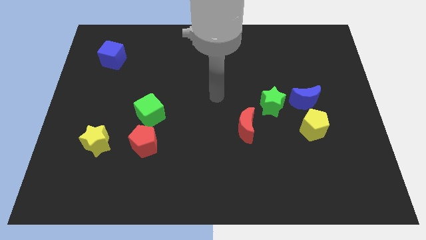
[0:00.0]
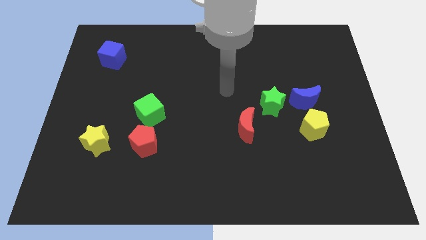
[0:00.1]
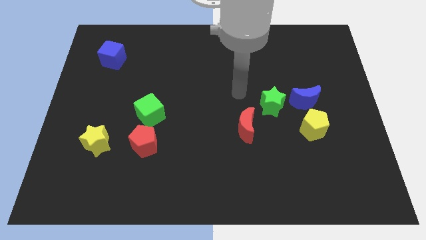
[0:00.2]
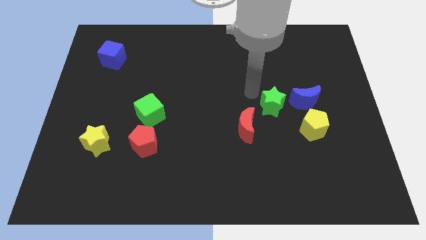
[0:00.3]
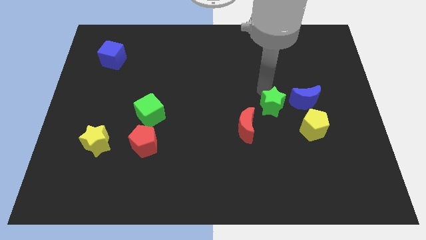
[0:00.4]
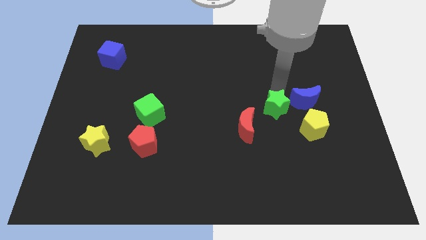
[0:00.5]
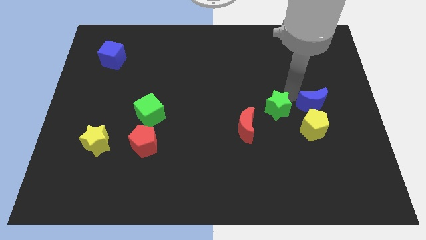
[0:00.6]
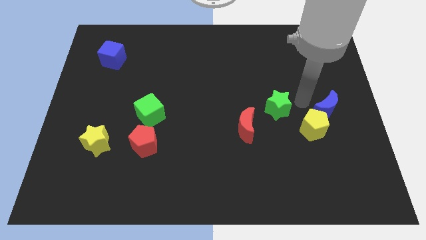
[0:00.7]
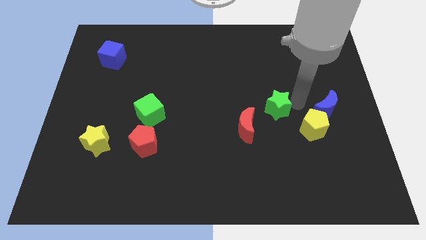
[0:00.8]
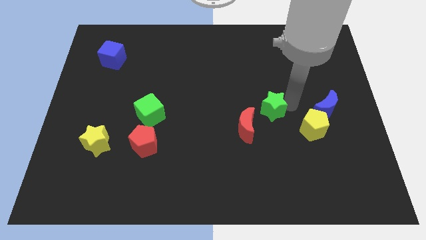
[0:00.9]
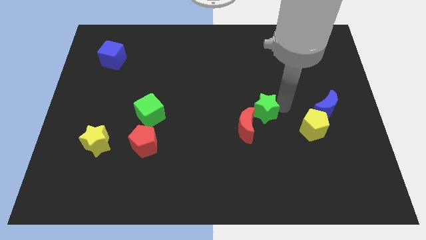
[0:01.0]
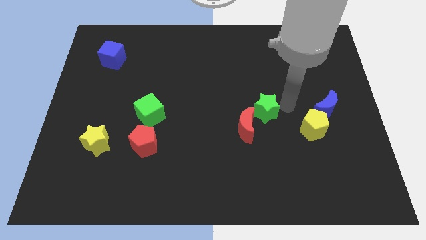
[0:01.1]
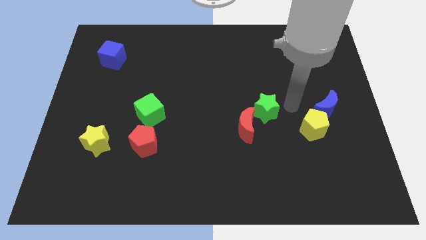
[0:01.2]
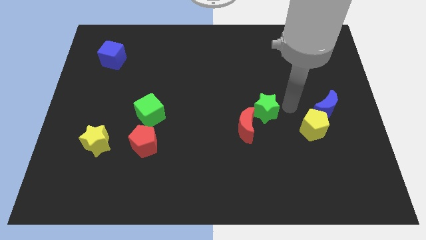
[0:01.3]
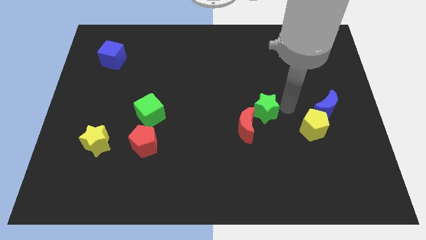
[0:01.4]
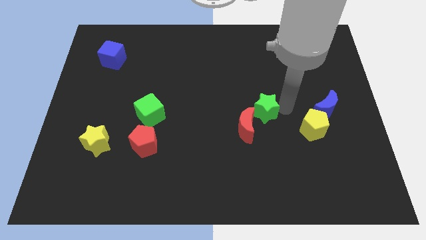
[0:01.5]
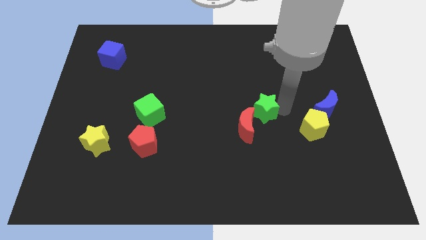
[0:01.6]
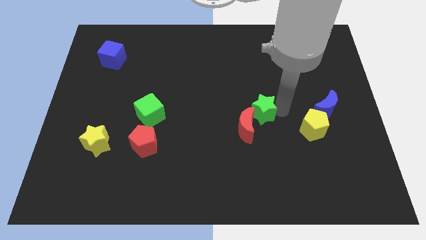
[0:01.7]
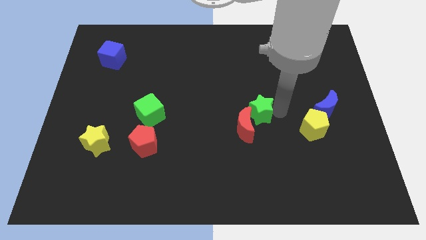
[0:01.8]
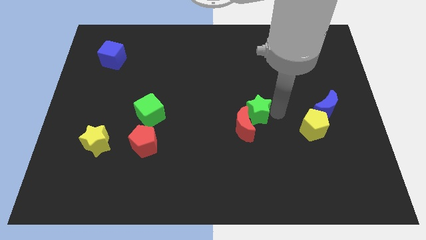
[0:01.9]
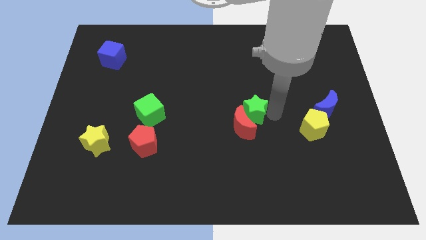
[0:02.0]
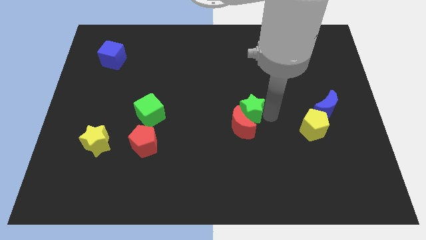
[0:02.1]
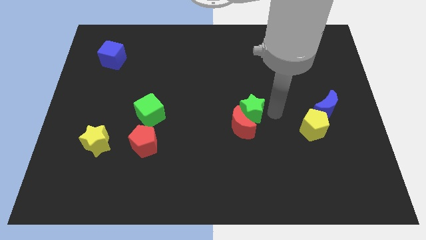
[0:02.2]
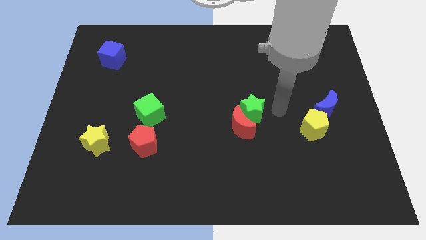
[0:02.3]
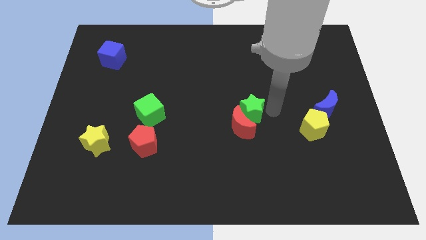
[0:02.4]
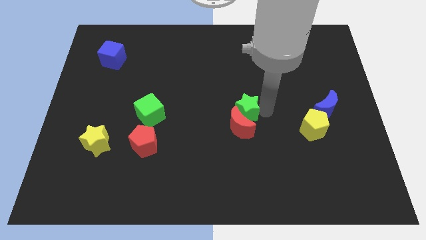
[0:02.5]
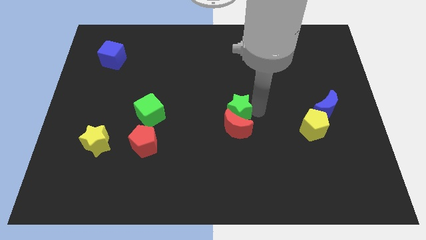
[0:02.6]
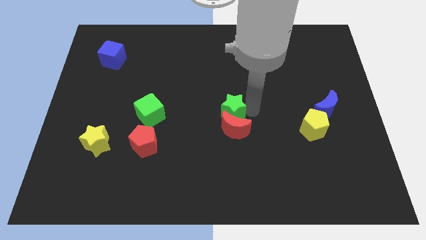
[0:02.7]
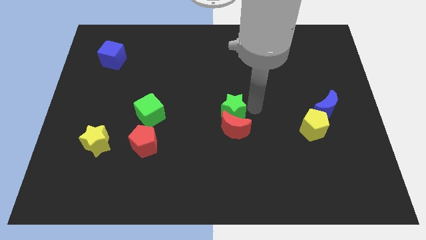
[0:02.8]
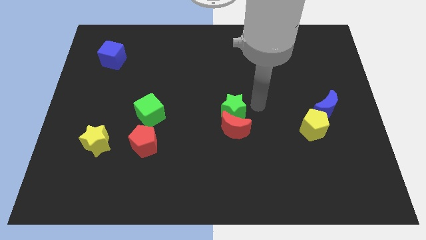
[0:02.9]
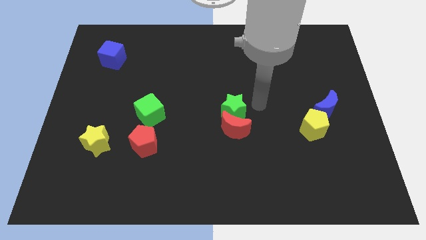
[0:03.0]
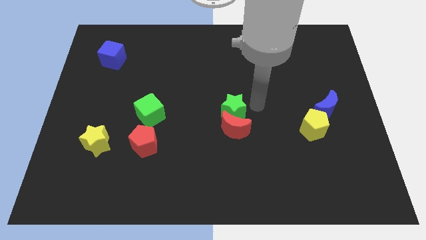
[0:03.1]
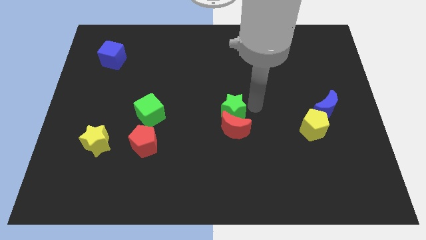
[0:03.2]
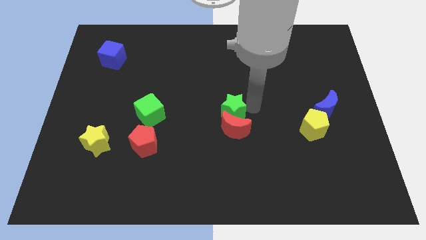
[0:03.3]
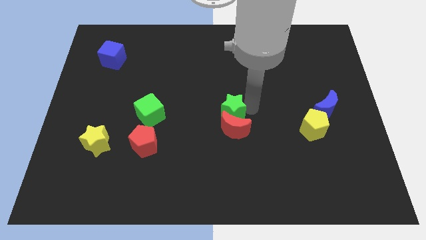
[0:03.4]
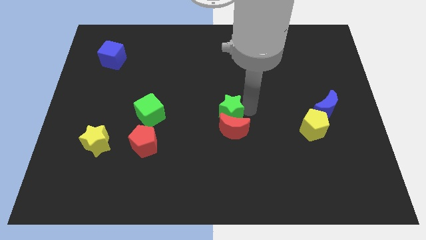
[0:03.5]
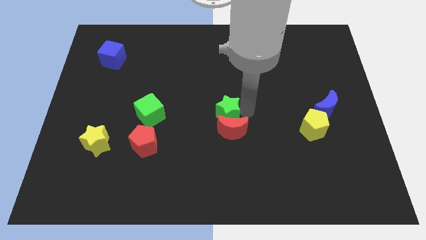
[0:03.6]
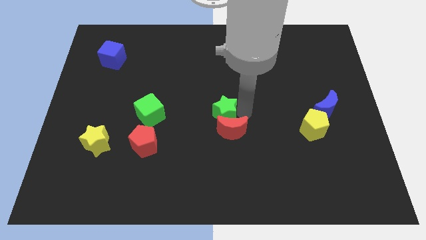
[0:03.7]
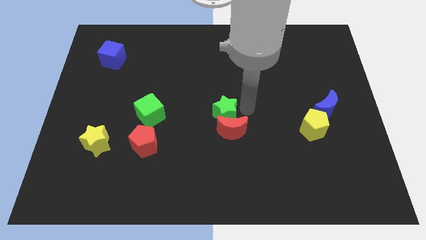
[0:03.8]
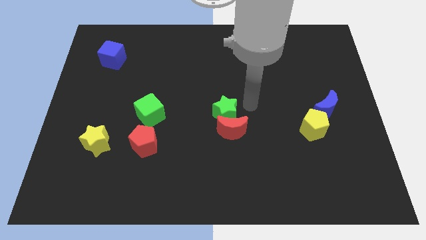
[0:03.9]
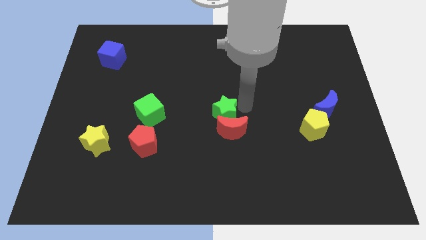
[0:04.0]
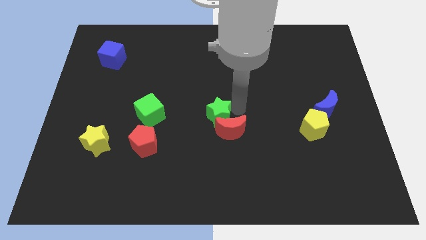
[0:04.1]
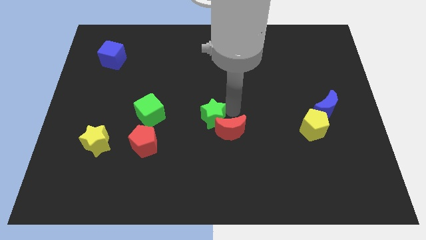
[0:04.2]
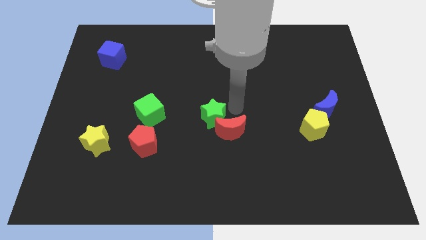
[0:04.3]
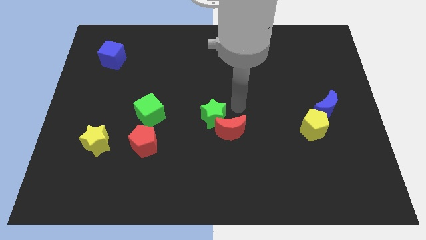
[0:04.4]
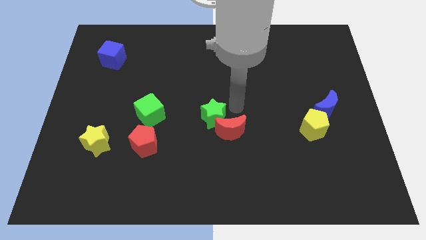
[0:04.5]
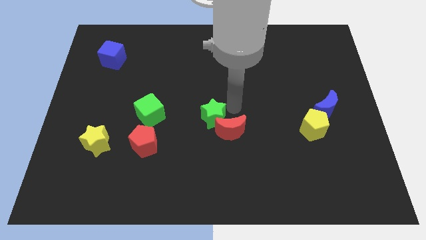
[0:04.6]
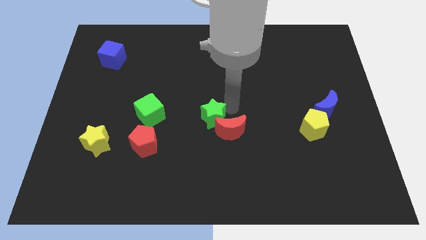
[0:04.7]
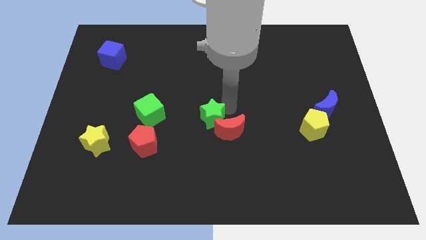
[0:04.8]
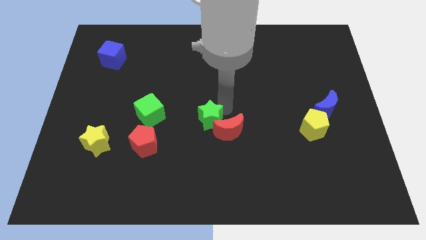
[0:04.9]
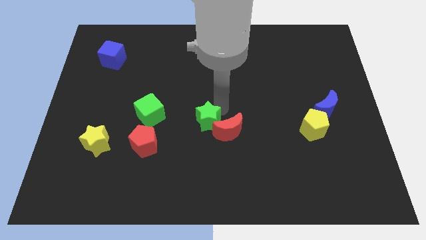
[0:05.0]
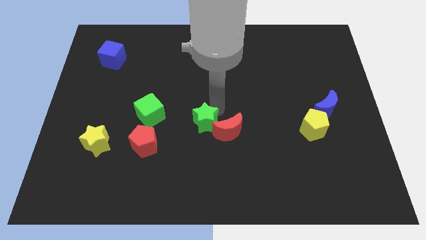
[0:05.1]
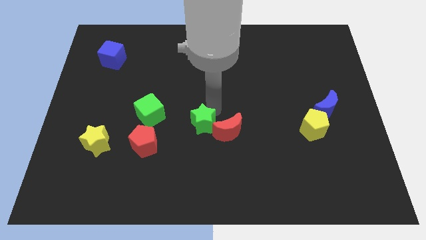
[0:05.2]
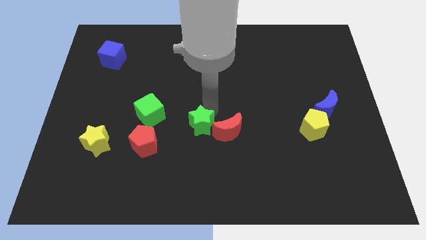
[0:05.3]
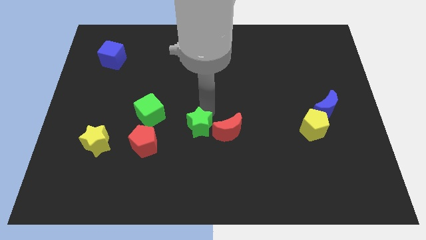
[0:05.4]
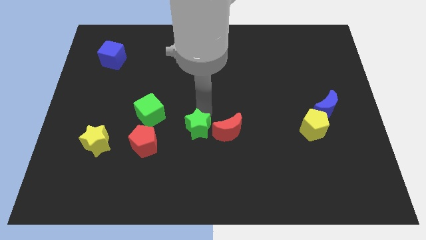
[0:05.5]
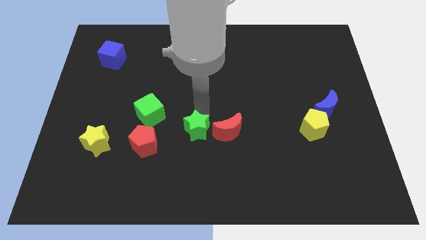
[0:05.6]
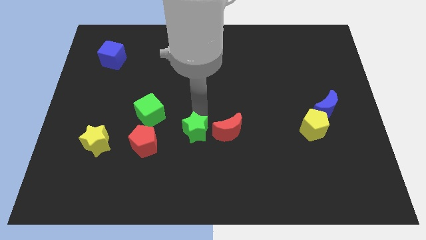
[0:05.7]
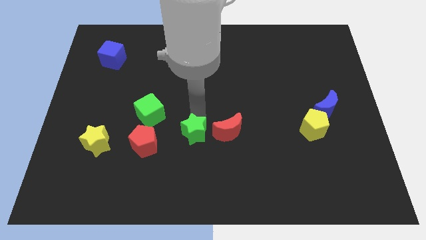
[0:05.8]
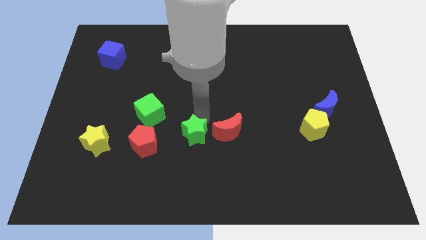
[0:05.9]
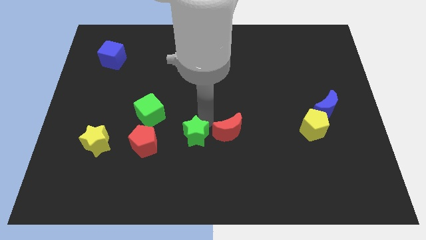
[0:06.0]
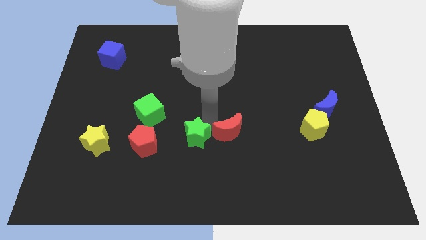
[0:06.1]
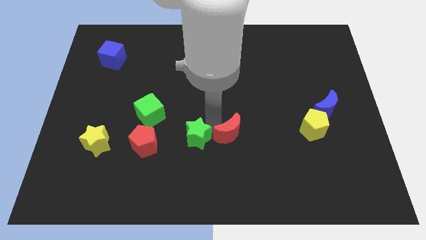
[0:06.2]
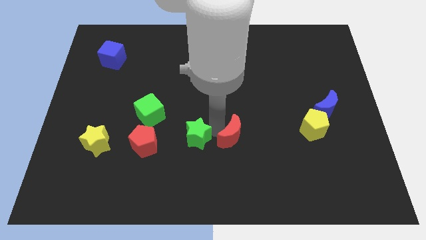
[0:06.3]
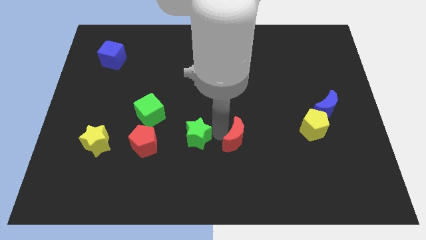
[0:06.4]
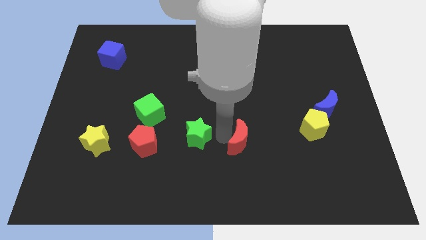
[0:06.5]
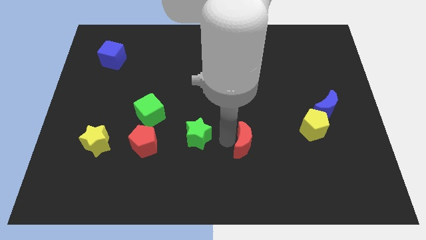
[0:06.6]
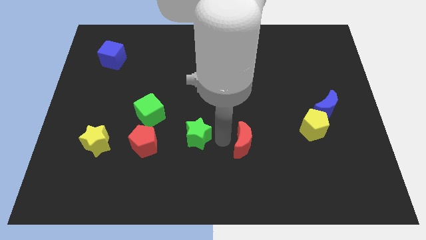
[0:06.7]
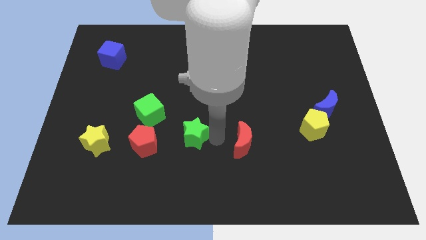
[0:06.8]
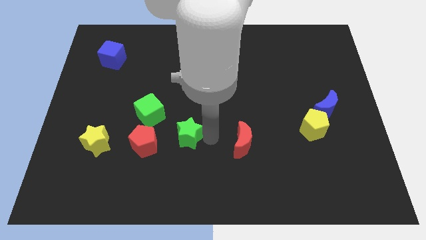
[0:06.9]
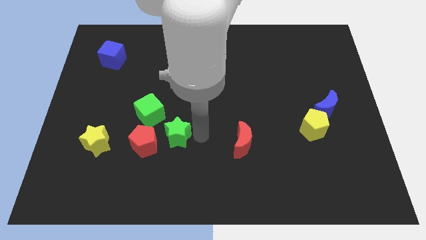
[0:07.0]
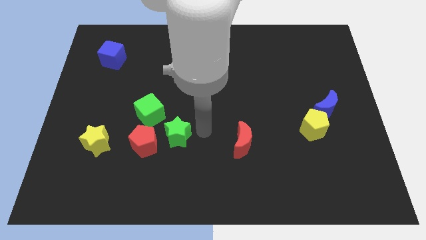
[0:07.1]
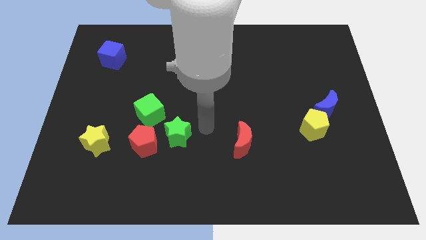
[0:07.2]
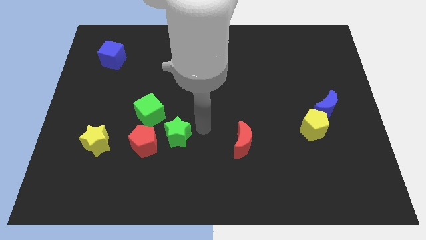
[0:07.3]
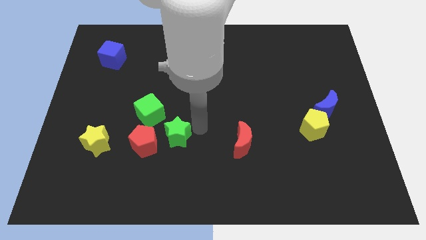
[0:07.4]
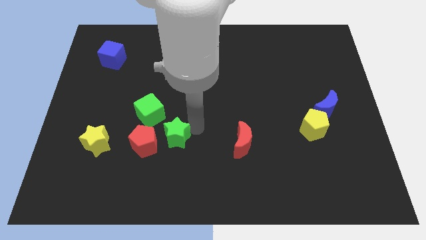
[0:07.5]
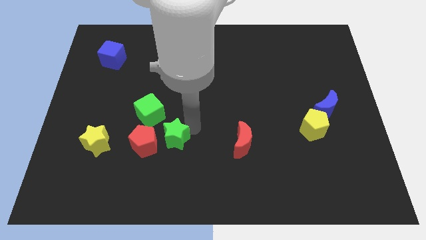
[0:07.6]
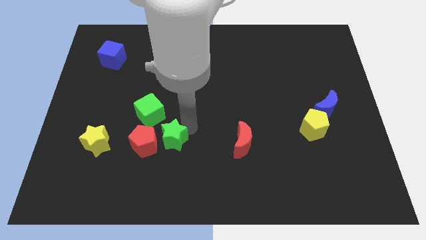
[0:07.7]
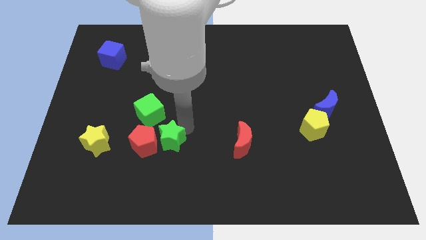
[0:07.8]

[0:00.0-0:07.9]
slide the green star next to the red pentagon

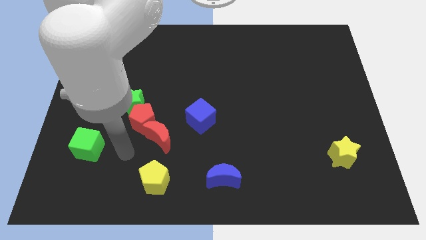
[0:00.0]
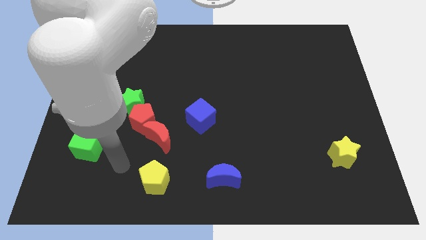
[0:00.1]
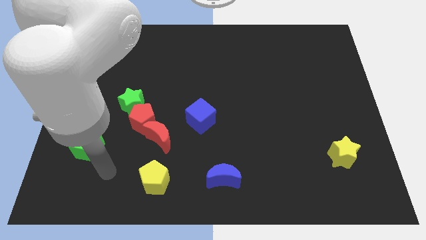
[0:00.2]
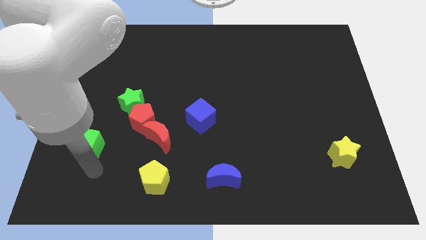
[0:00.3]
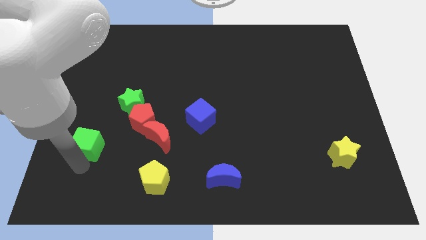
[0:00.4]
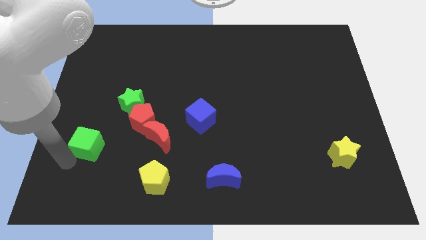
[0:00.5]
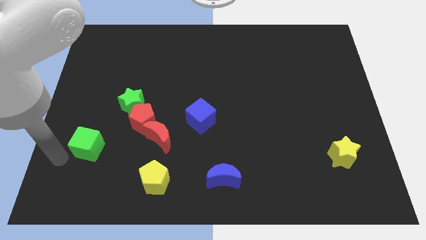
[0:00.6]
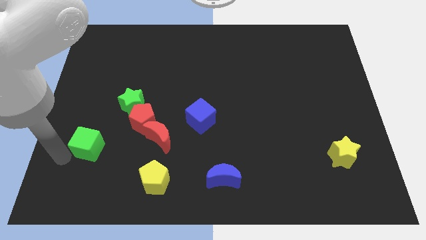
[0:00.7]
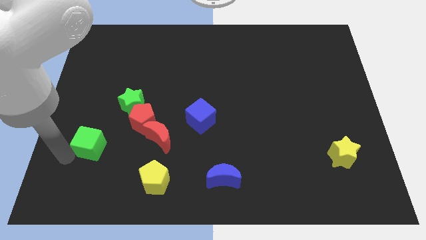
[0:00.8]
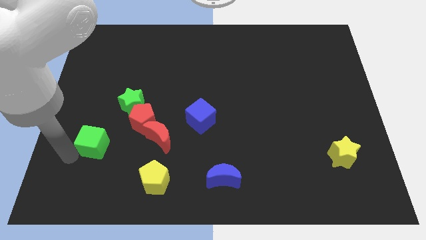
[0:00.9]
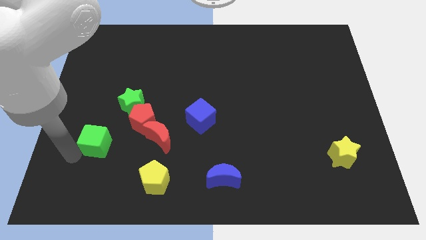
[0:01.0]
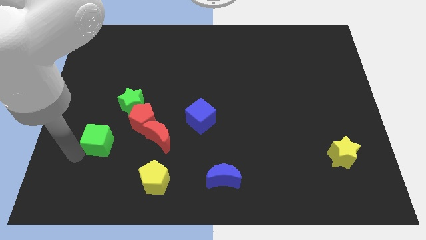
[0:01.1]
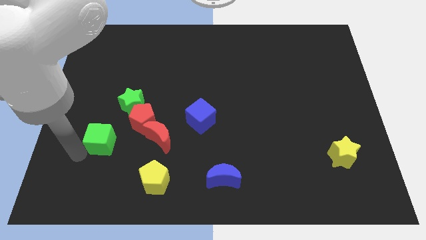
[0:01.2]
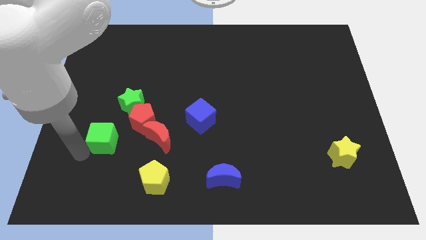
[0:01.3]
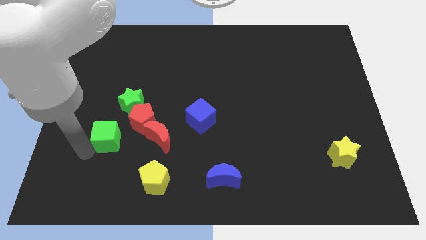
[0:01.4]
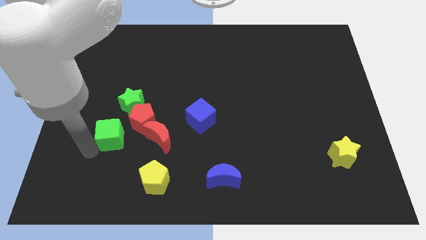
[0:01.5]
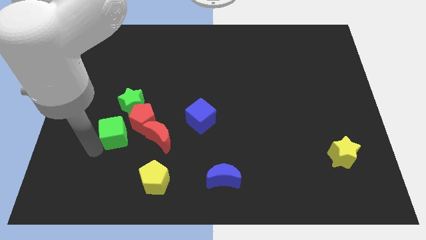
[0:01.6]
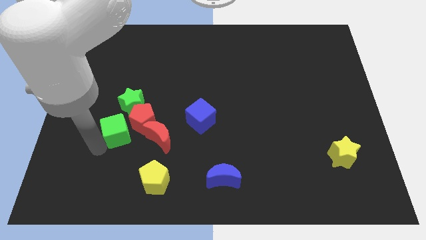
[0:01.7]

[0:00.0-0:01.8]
slide the green cube to the red pentagon
